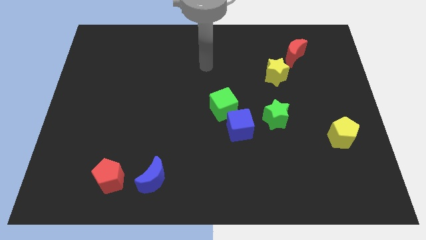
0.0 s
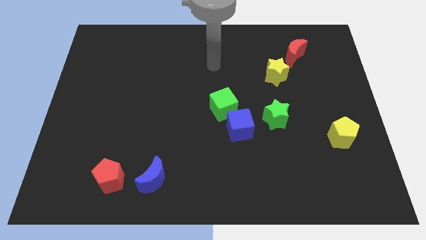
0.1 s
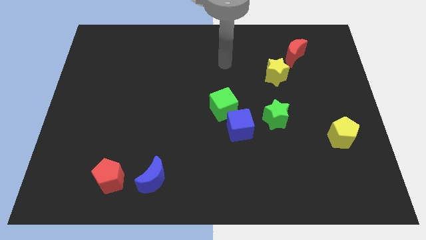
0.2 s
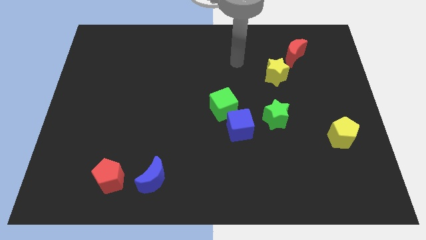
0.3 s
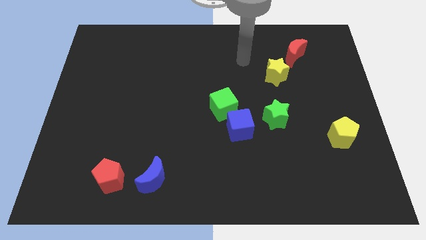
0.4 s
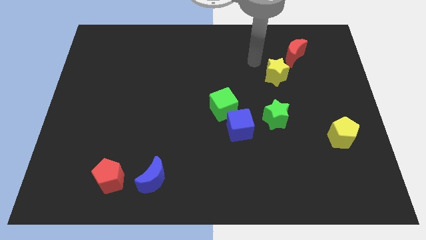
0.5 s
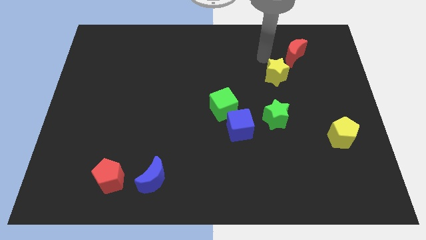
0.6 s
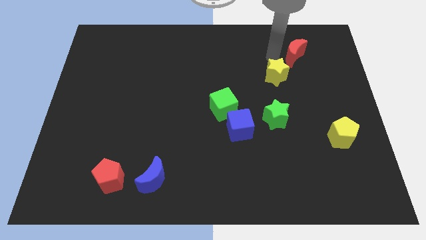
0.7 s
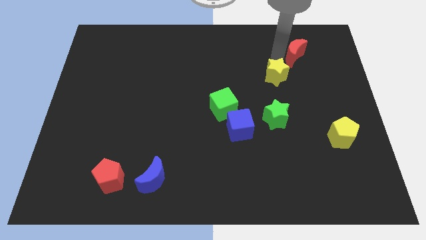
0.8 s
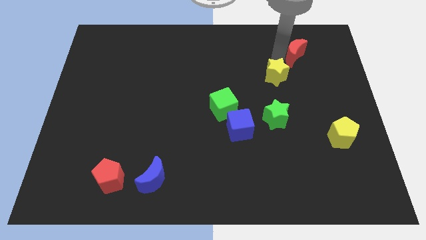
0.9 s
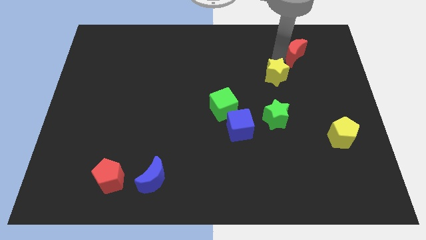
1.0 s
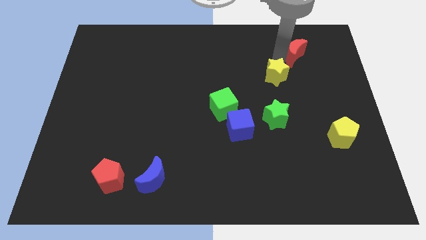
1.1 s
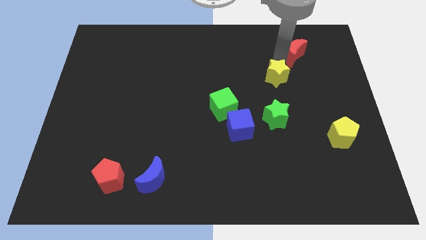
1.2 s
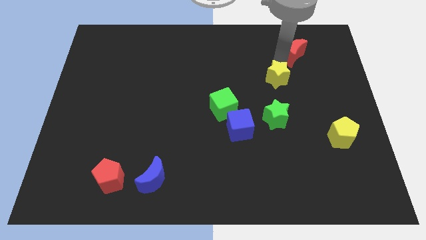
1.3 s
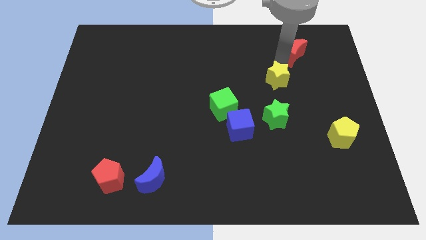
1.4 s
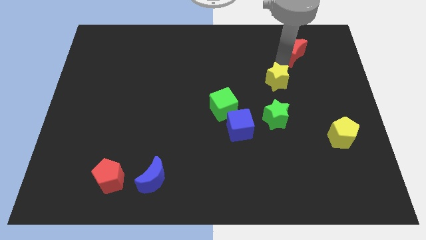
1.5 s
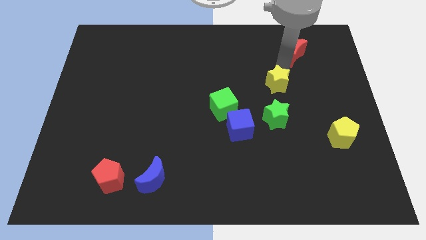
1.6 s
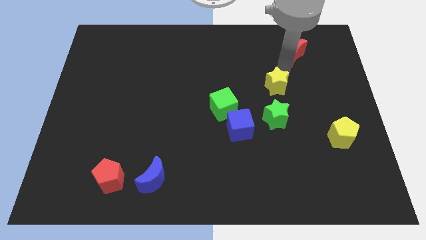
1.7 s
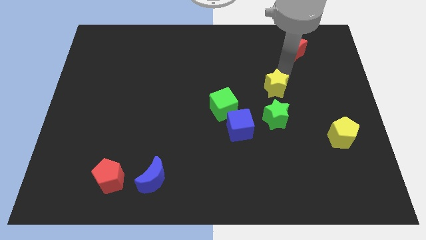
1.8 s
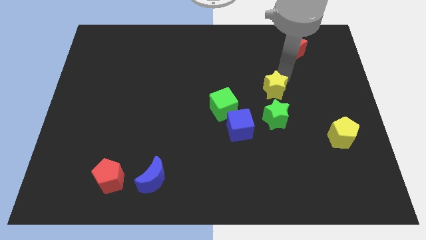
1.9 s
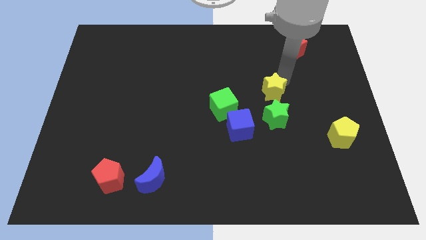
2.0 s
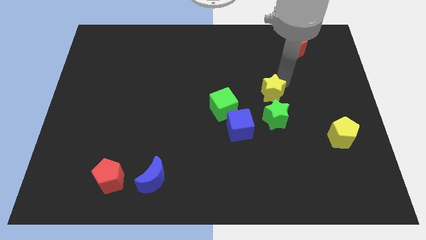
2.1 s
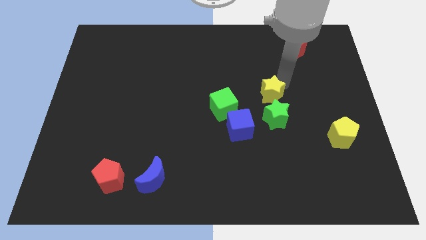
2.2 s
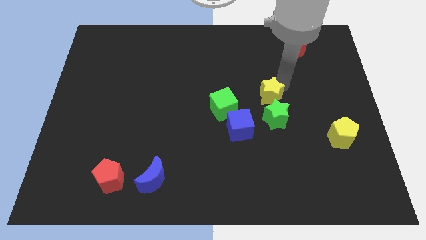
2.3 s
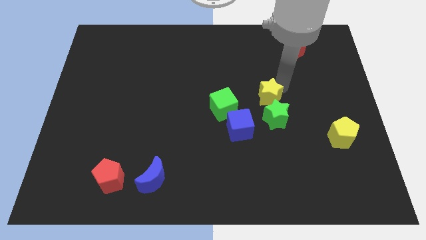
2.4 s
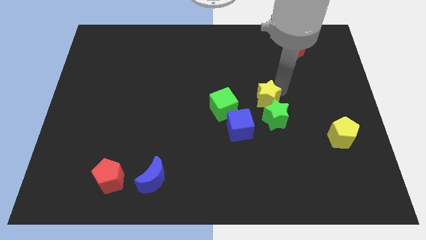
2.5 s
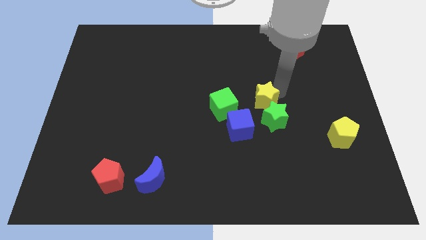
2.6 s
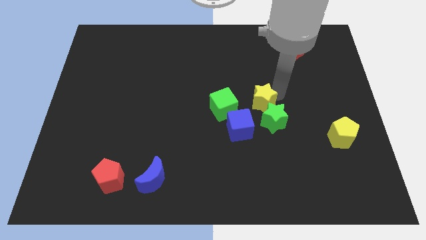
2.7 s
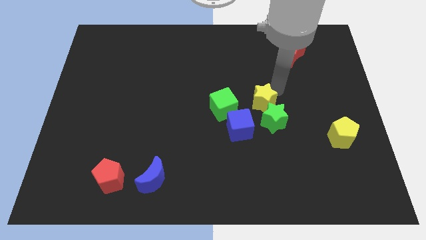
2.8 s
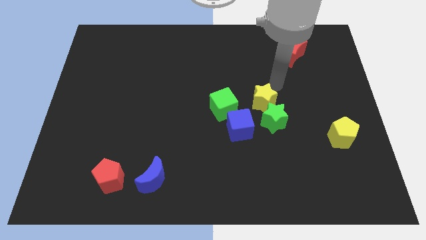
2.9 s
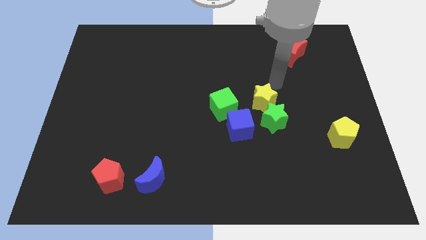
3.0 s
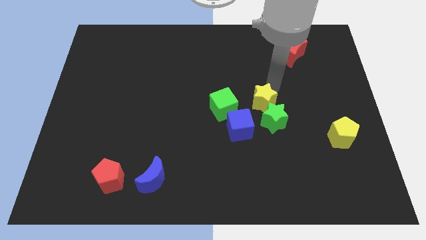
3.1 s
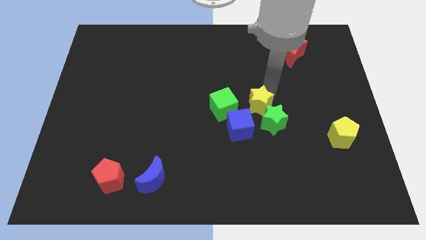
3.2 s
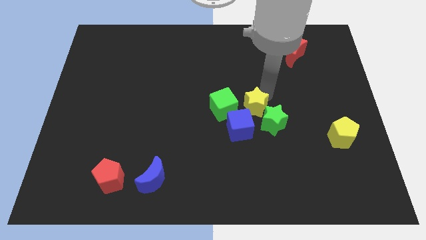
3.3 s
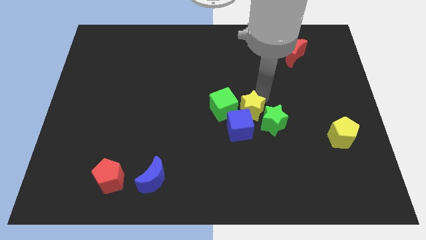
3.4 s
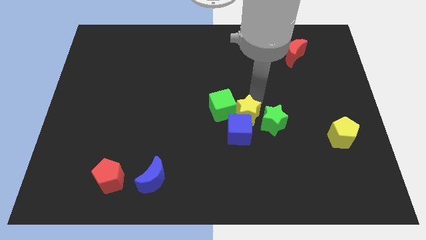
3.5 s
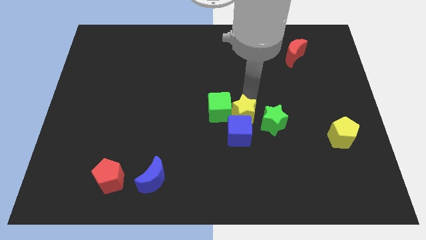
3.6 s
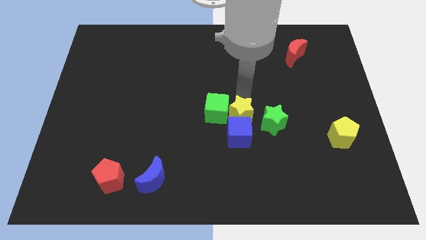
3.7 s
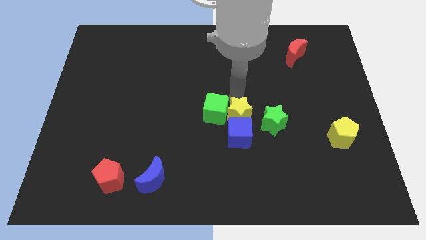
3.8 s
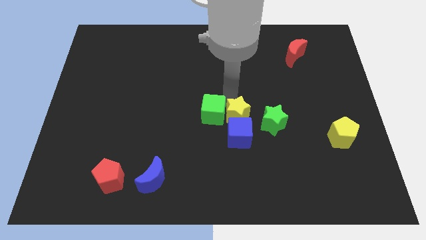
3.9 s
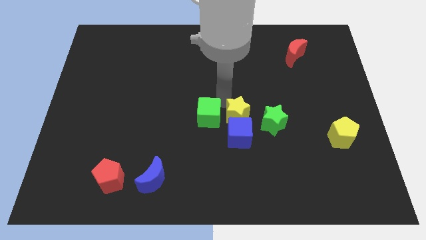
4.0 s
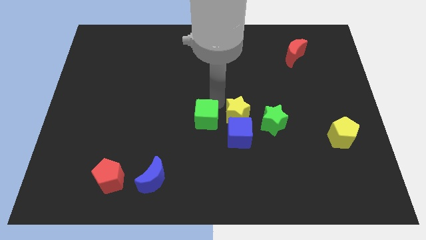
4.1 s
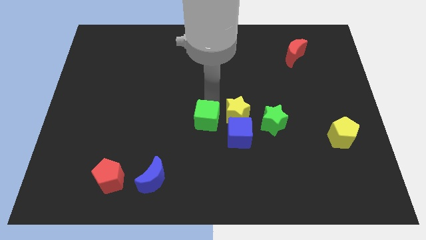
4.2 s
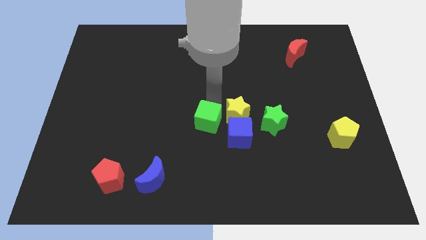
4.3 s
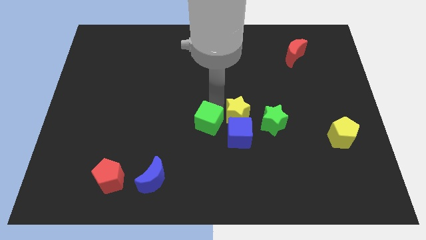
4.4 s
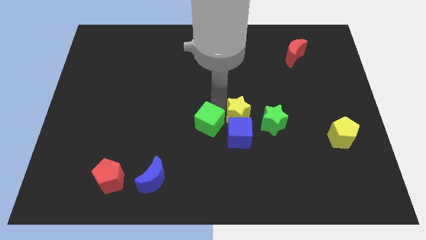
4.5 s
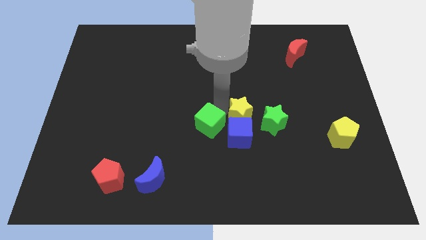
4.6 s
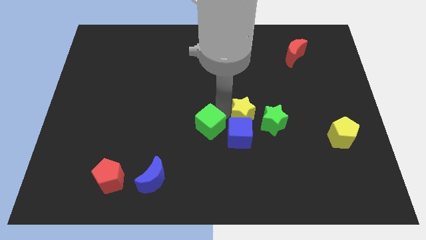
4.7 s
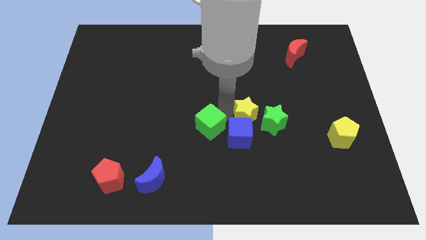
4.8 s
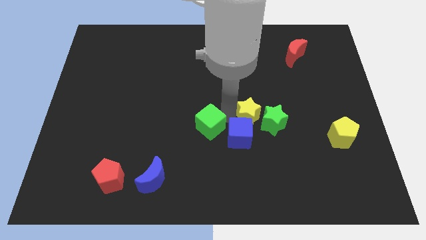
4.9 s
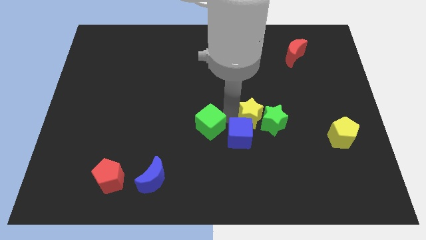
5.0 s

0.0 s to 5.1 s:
slide the yellow star to the bottom left of the green star

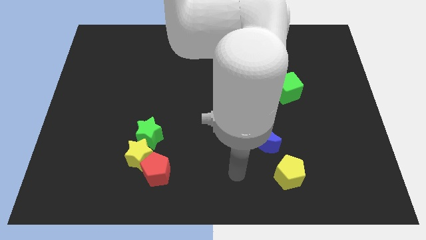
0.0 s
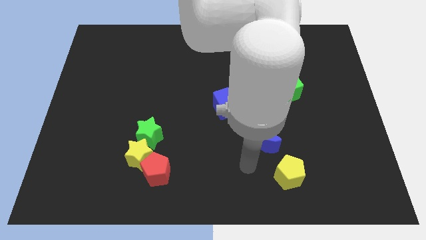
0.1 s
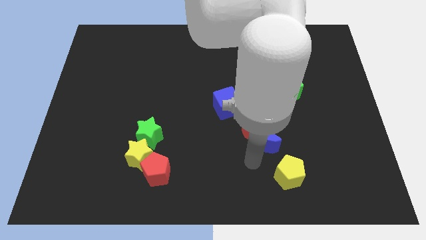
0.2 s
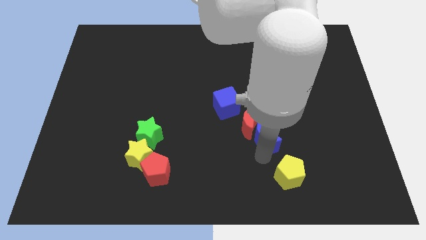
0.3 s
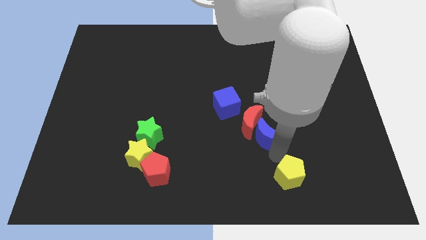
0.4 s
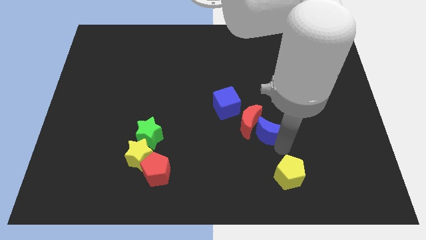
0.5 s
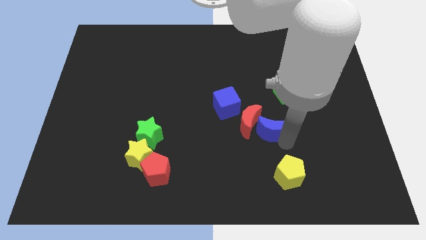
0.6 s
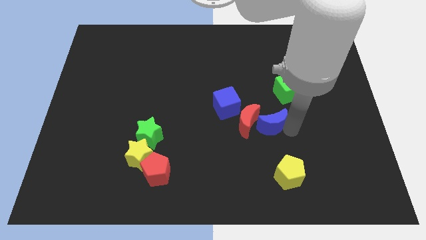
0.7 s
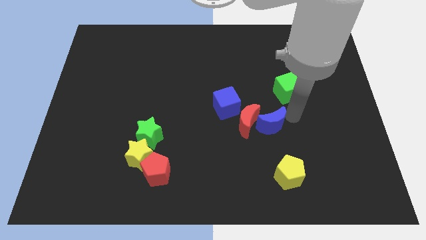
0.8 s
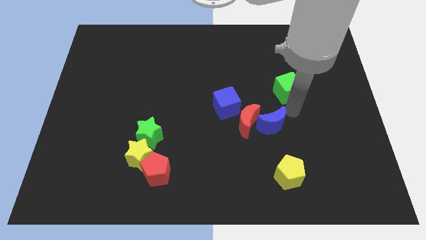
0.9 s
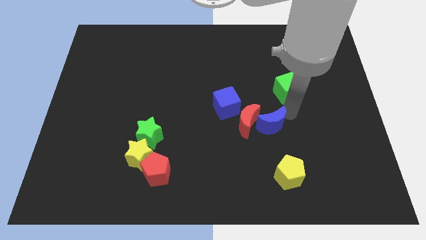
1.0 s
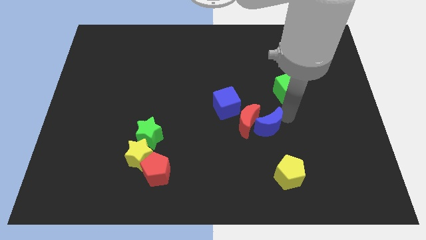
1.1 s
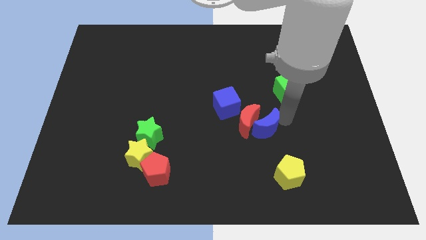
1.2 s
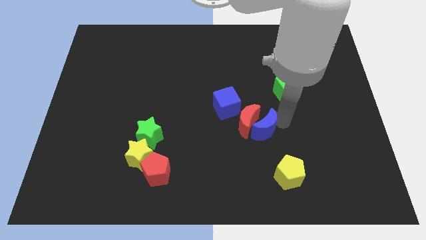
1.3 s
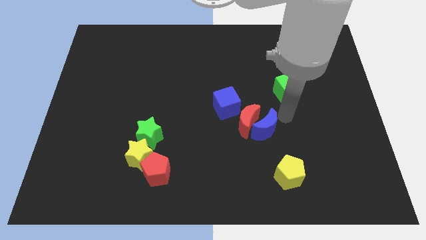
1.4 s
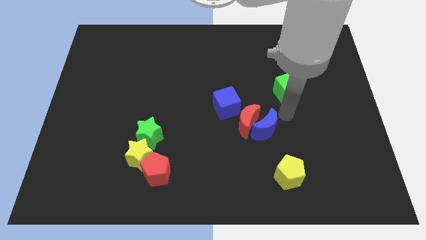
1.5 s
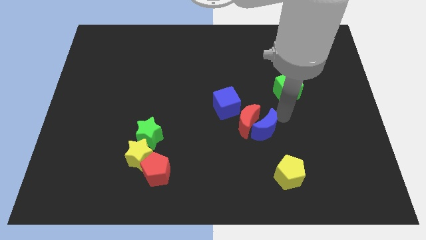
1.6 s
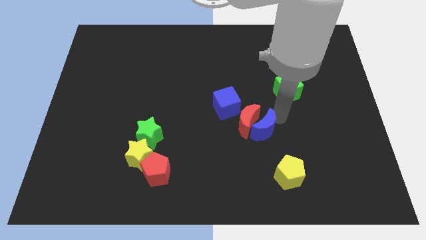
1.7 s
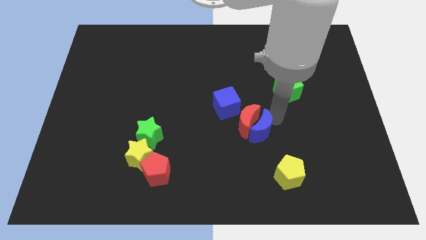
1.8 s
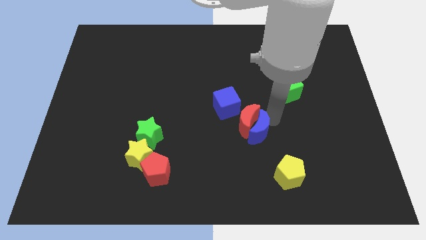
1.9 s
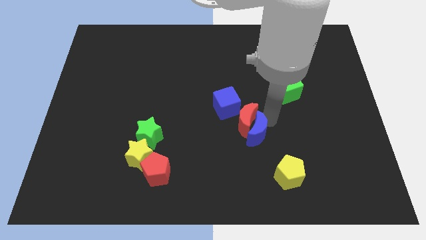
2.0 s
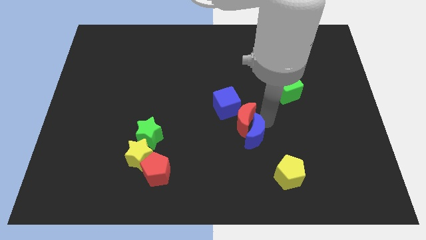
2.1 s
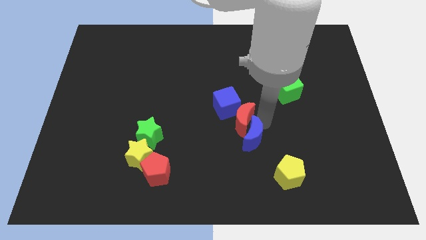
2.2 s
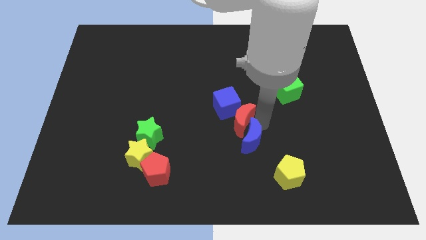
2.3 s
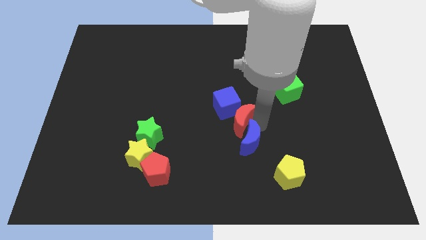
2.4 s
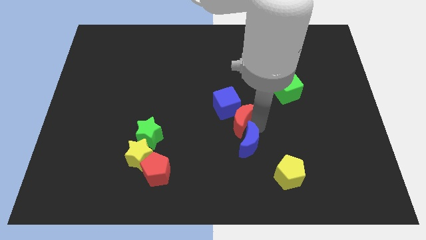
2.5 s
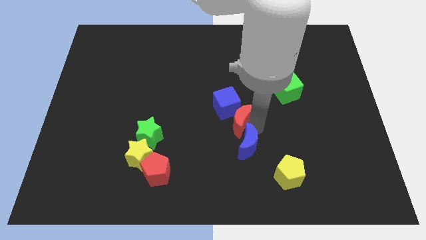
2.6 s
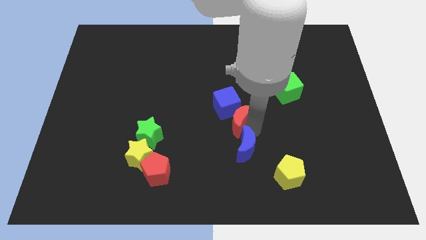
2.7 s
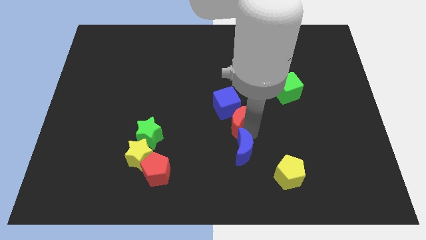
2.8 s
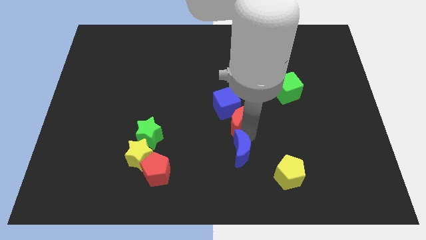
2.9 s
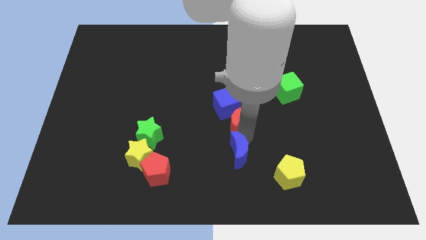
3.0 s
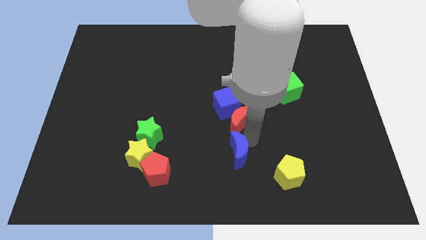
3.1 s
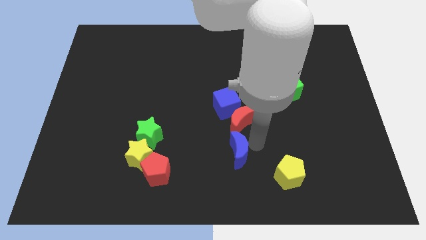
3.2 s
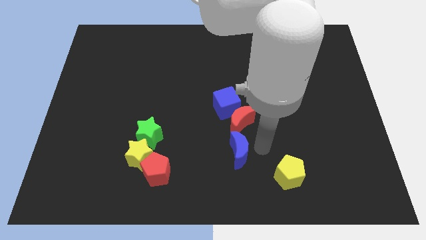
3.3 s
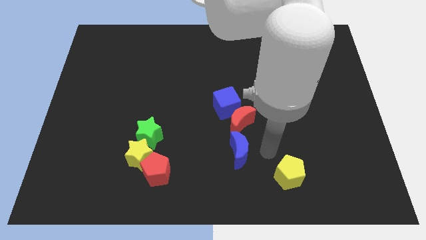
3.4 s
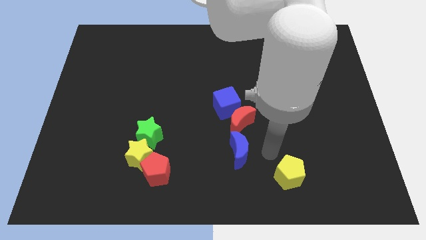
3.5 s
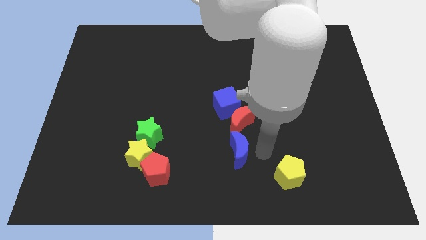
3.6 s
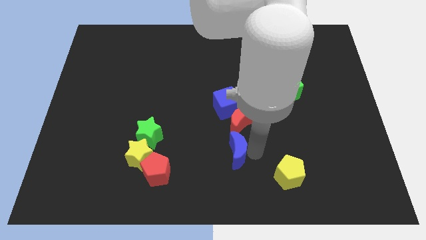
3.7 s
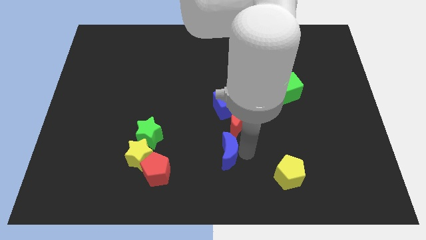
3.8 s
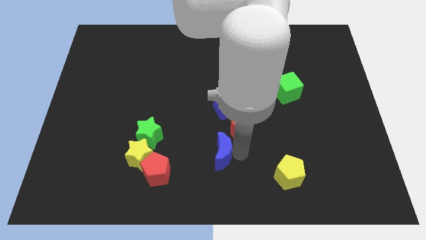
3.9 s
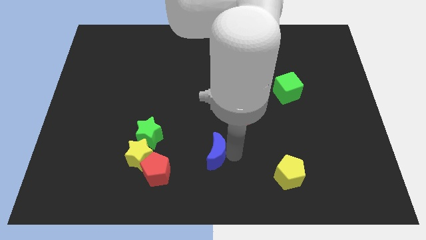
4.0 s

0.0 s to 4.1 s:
put the blue moon just right of the yellow star
